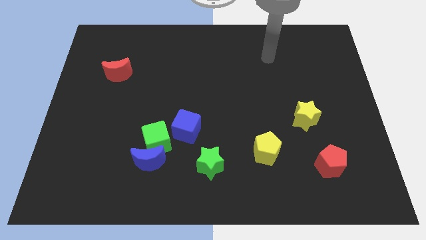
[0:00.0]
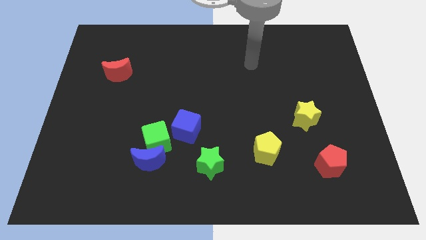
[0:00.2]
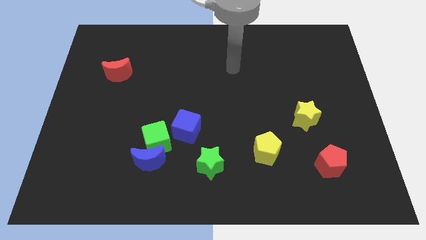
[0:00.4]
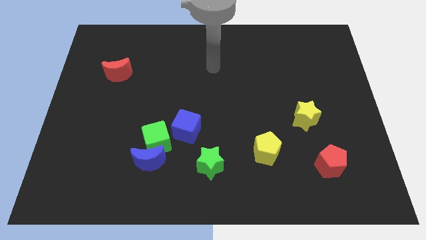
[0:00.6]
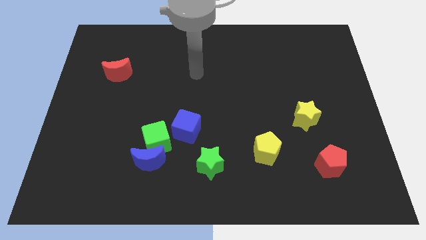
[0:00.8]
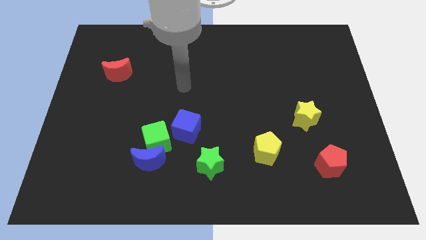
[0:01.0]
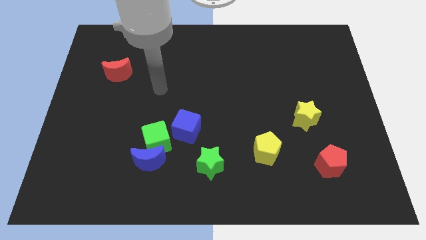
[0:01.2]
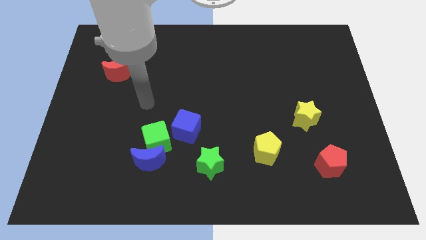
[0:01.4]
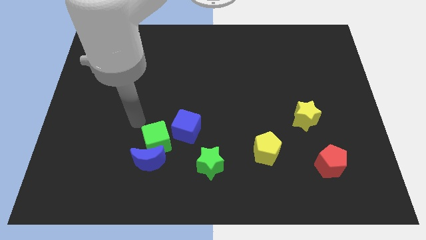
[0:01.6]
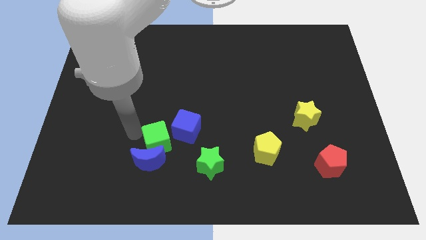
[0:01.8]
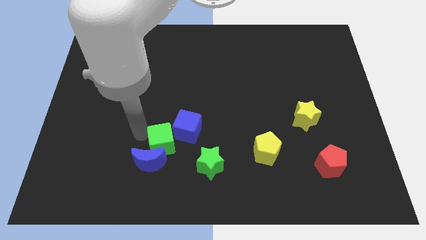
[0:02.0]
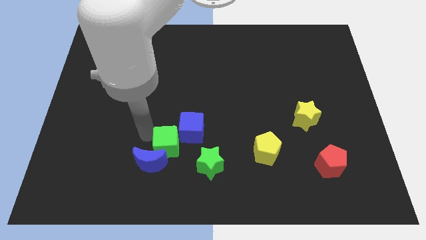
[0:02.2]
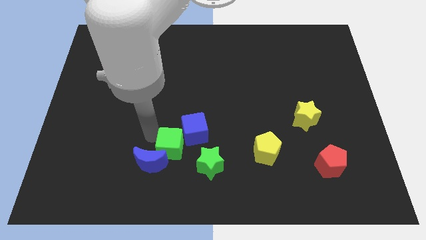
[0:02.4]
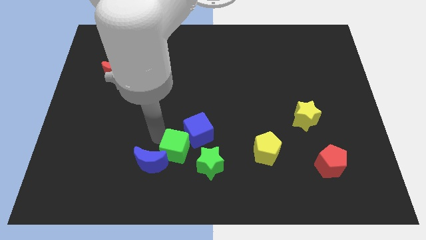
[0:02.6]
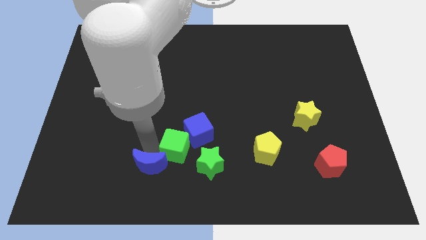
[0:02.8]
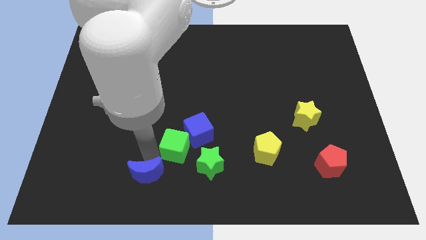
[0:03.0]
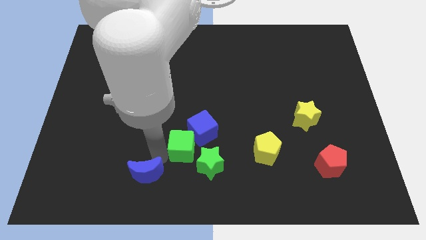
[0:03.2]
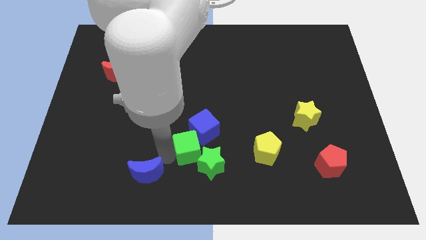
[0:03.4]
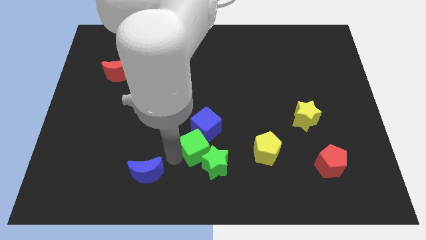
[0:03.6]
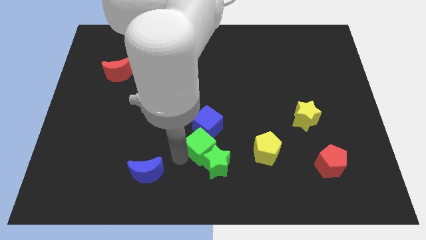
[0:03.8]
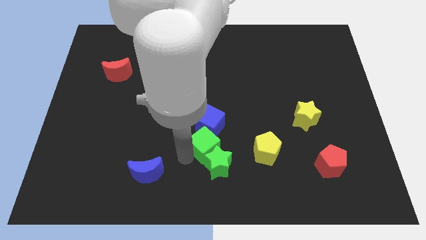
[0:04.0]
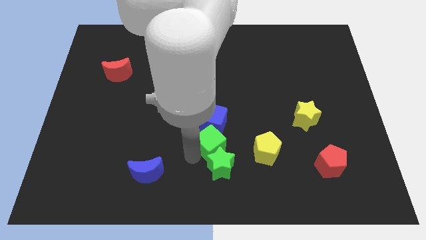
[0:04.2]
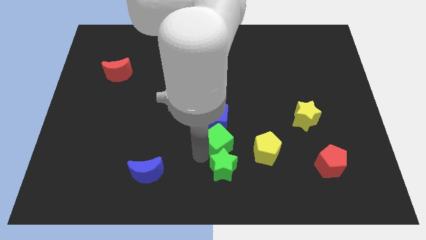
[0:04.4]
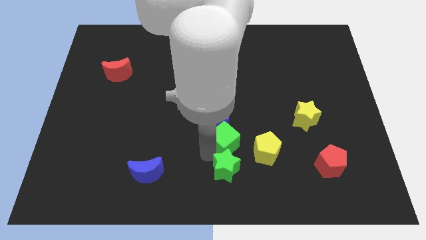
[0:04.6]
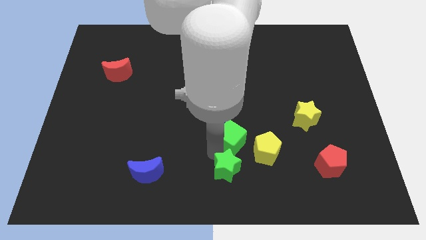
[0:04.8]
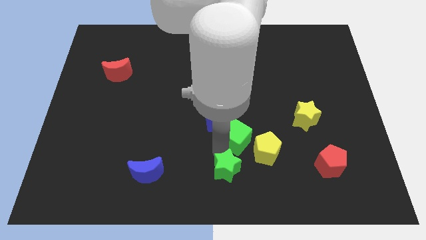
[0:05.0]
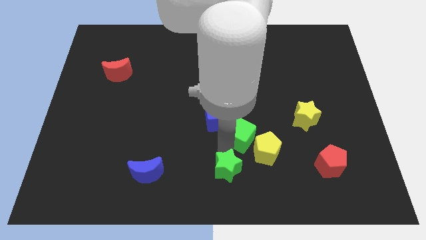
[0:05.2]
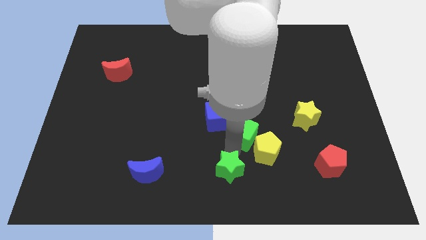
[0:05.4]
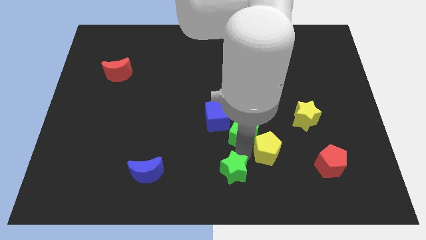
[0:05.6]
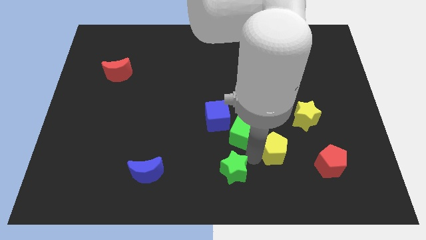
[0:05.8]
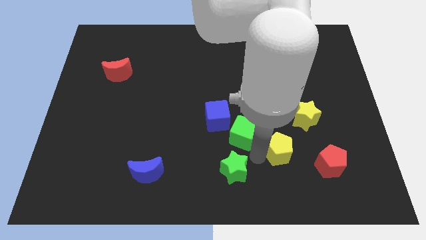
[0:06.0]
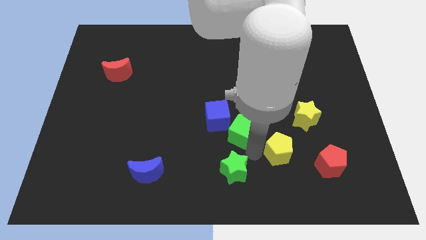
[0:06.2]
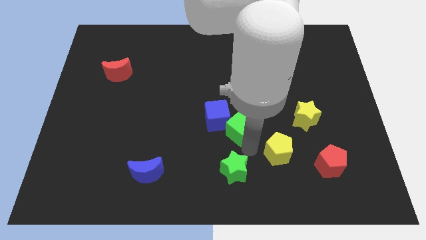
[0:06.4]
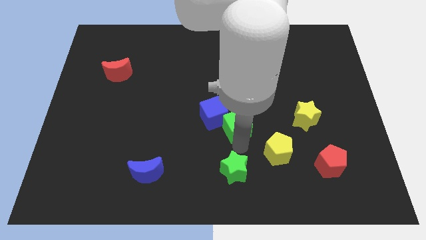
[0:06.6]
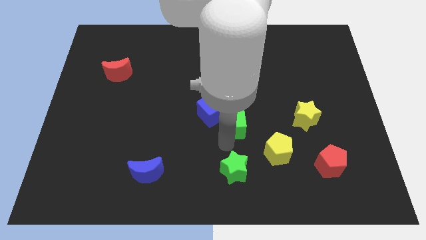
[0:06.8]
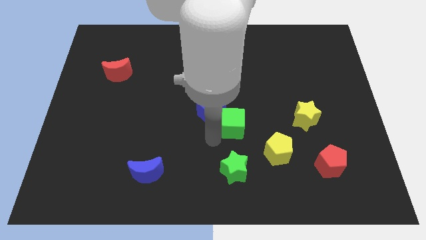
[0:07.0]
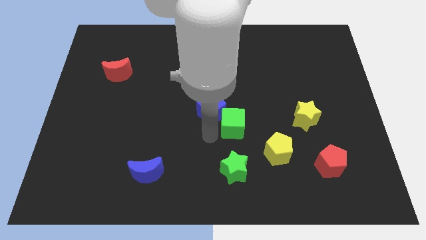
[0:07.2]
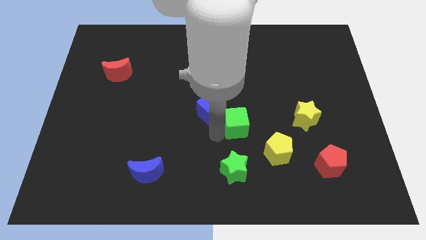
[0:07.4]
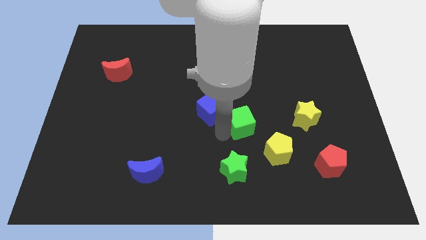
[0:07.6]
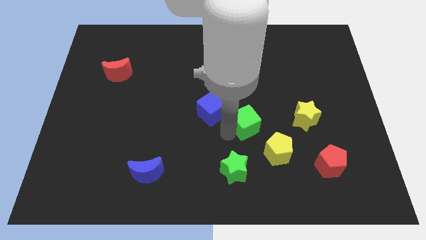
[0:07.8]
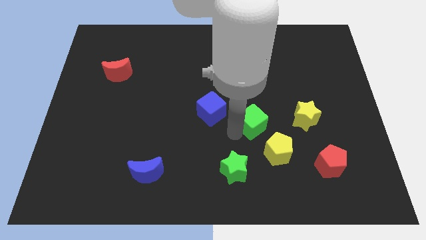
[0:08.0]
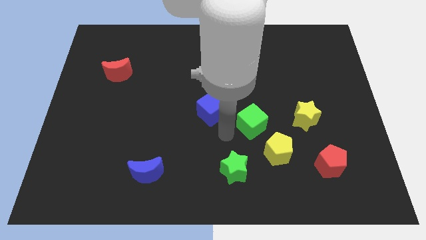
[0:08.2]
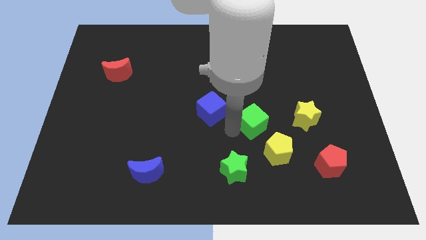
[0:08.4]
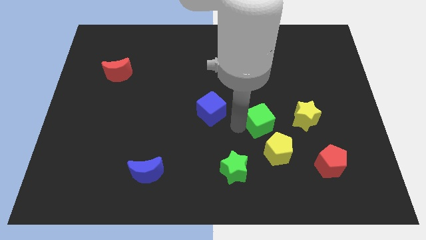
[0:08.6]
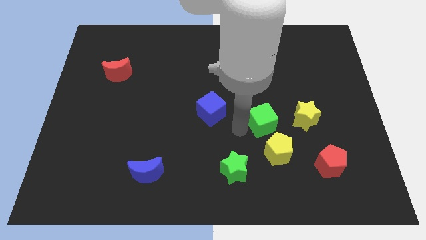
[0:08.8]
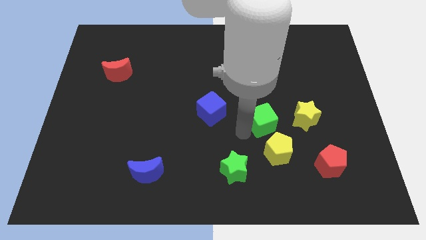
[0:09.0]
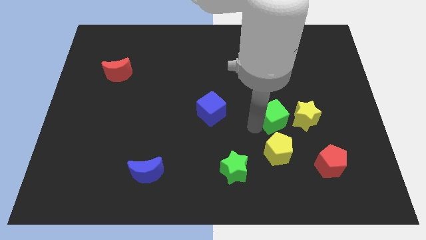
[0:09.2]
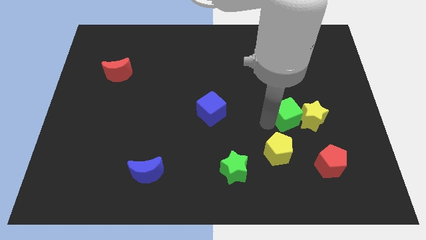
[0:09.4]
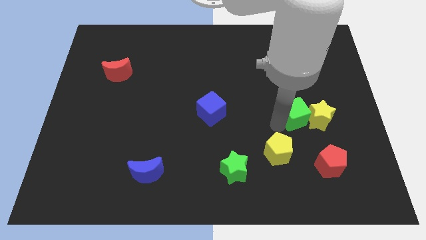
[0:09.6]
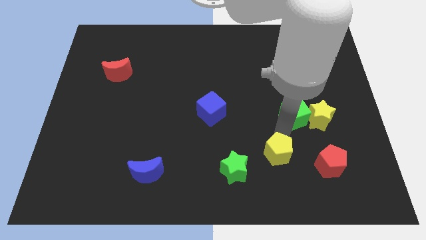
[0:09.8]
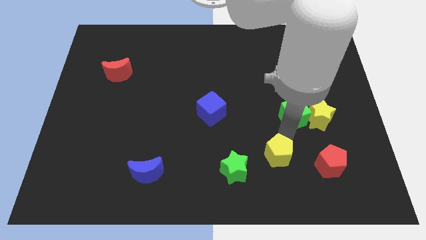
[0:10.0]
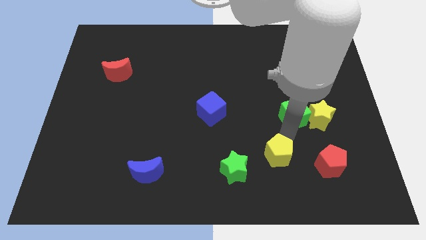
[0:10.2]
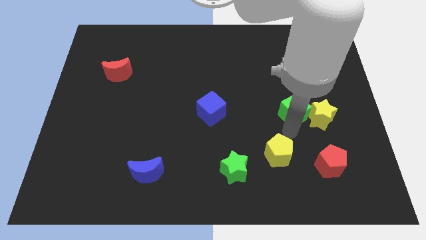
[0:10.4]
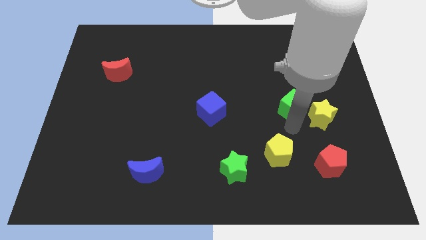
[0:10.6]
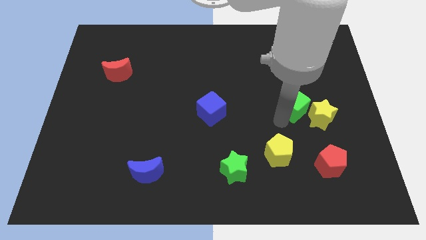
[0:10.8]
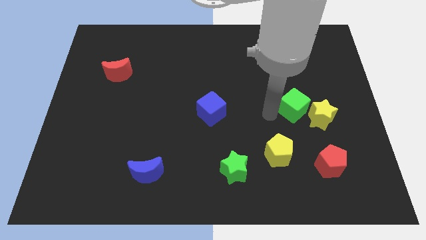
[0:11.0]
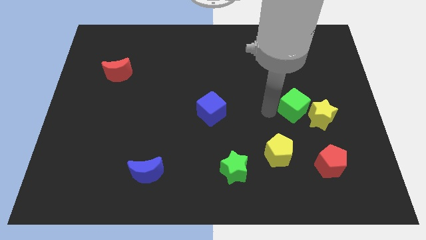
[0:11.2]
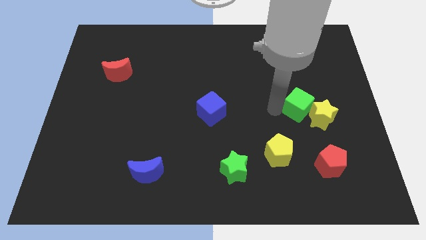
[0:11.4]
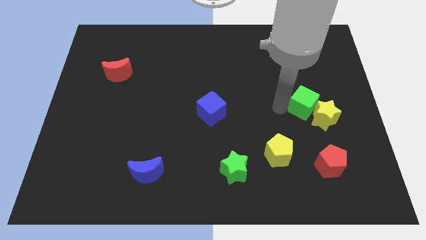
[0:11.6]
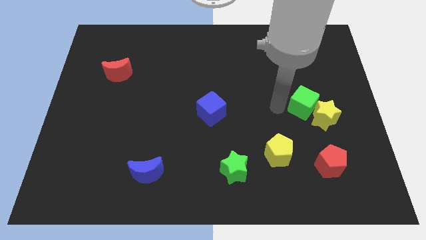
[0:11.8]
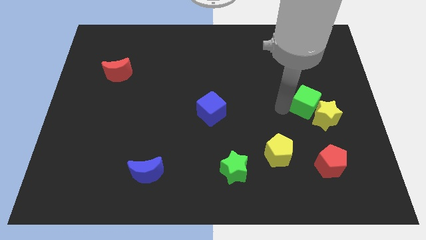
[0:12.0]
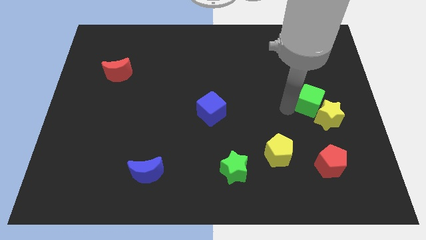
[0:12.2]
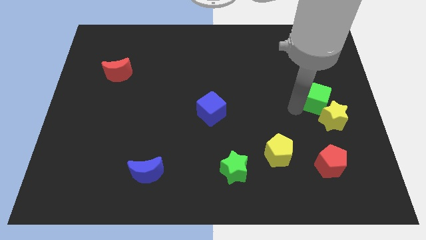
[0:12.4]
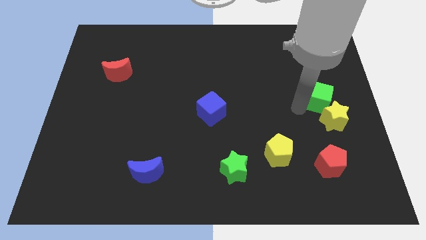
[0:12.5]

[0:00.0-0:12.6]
put the green cube to the right side
